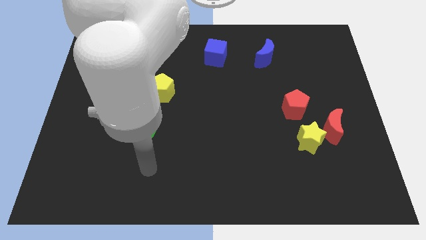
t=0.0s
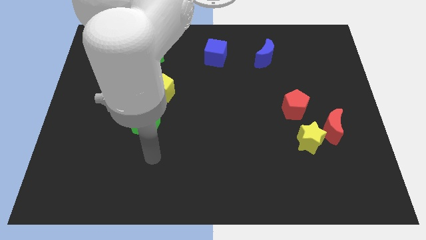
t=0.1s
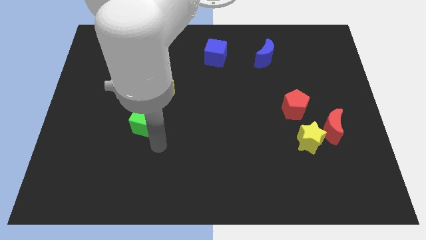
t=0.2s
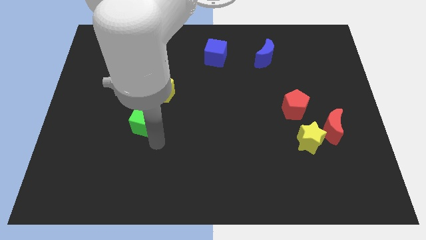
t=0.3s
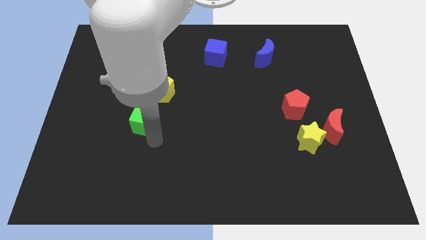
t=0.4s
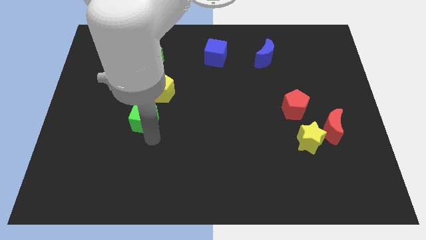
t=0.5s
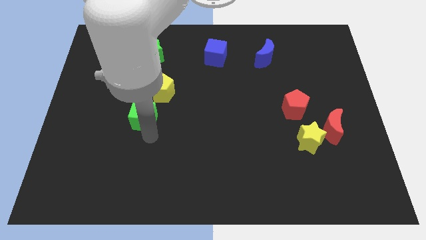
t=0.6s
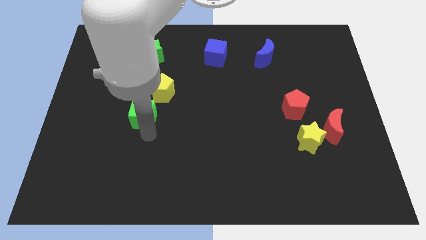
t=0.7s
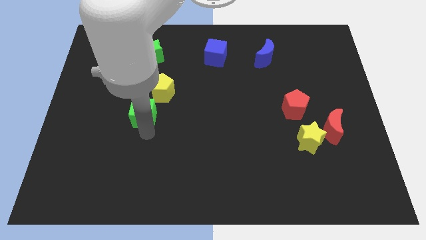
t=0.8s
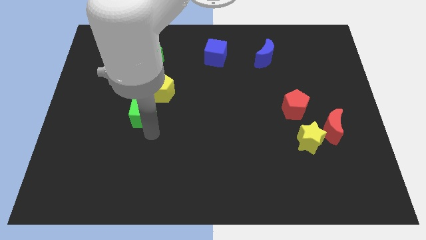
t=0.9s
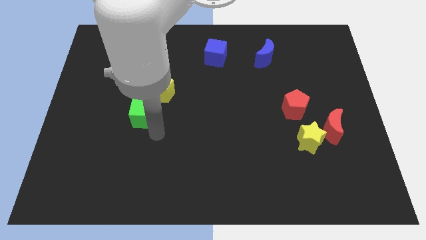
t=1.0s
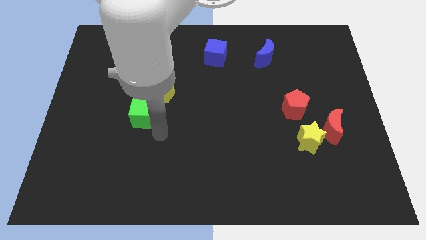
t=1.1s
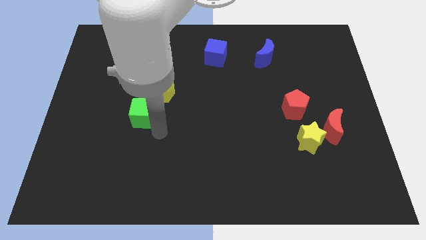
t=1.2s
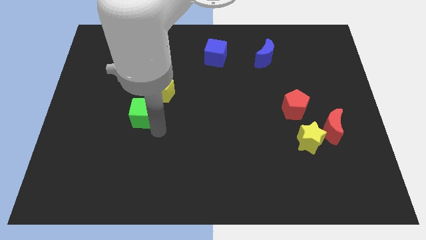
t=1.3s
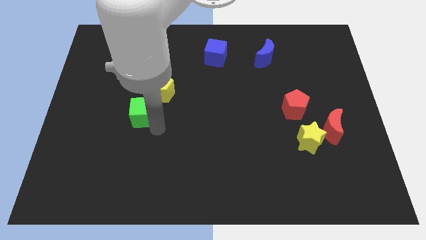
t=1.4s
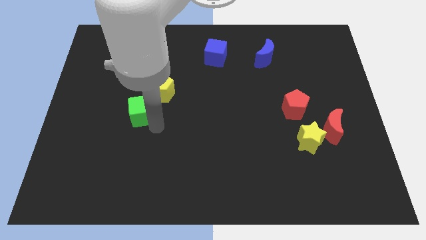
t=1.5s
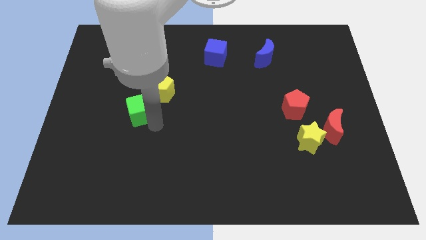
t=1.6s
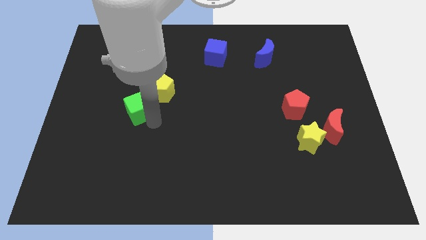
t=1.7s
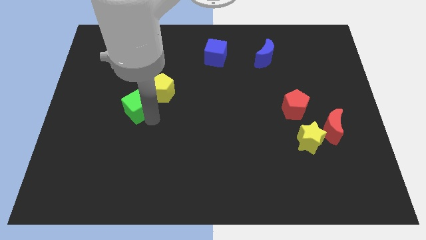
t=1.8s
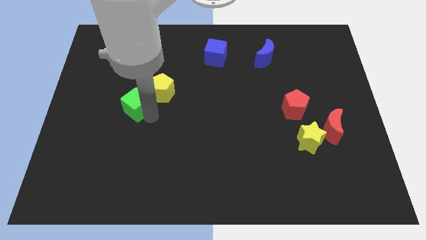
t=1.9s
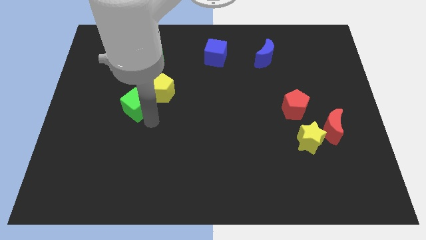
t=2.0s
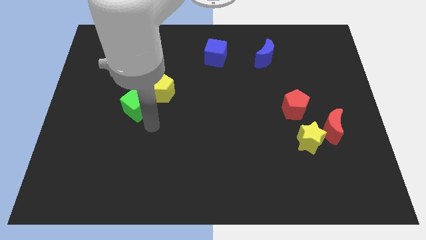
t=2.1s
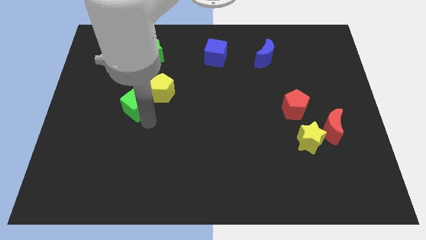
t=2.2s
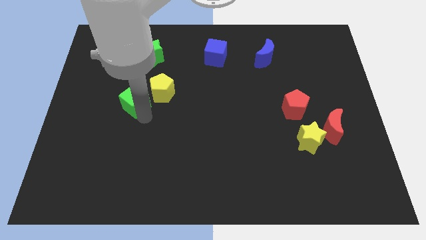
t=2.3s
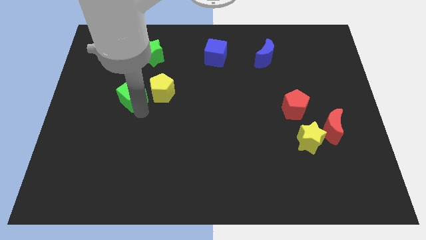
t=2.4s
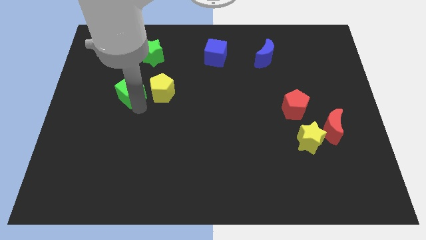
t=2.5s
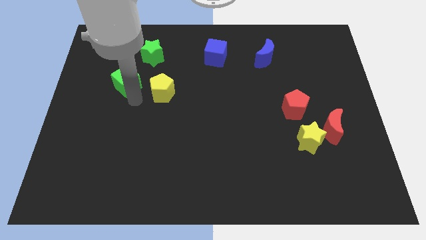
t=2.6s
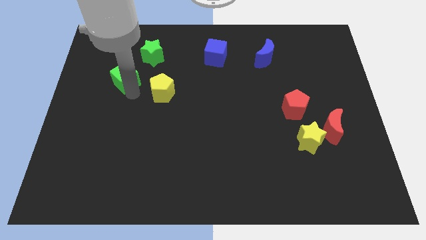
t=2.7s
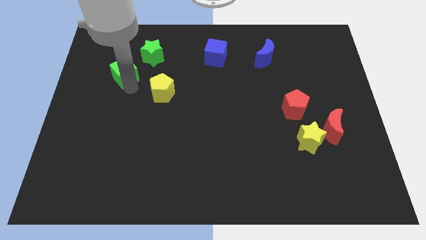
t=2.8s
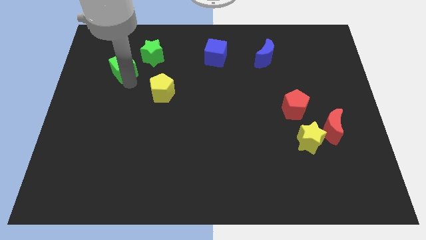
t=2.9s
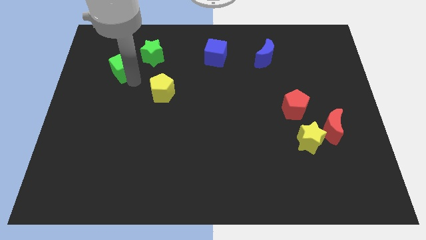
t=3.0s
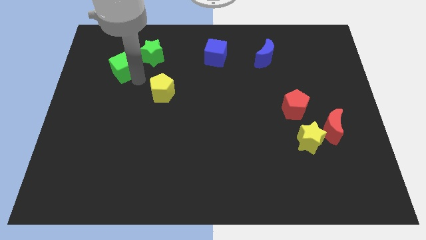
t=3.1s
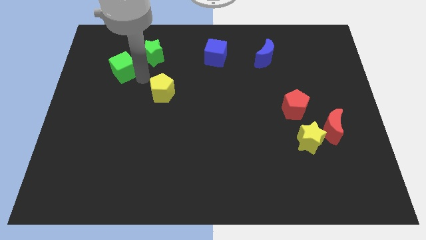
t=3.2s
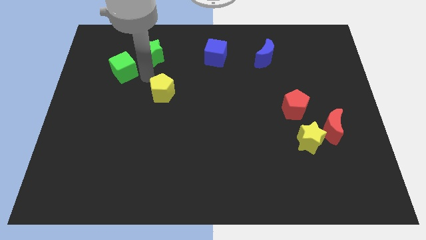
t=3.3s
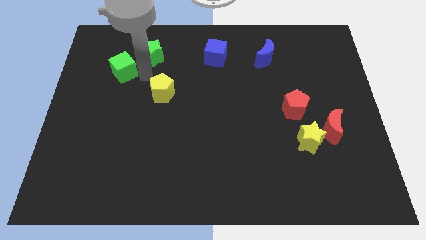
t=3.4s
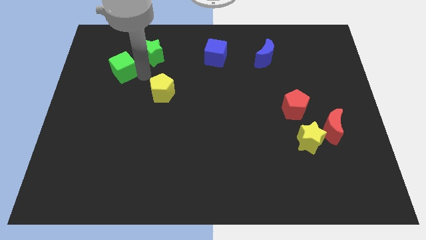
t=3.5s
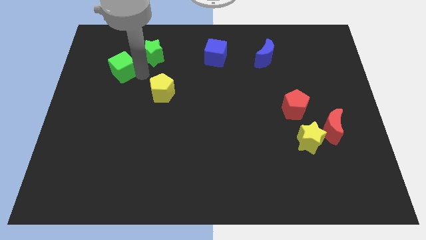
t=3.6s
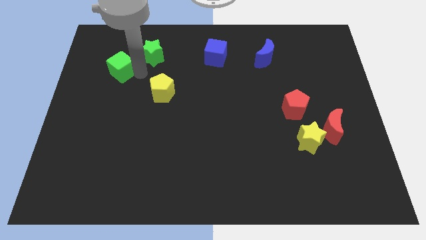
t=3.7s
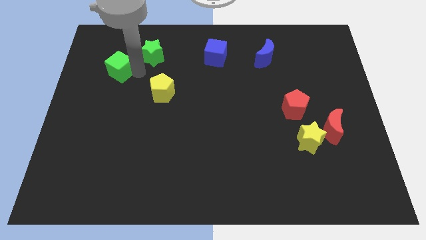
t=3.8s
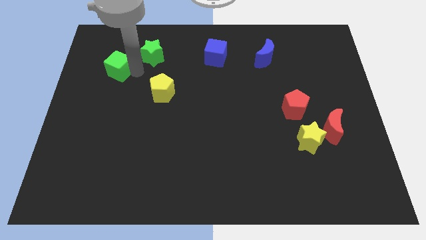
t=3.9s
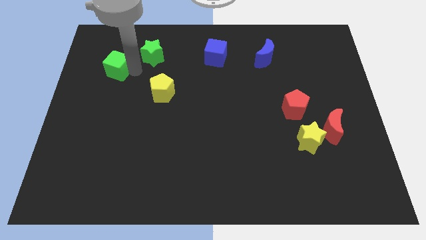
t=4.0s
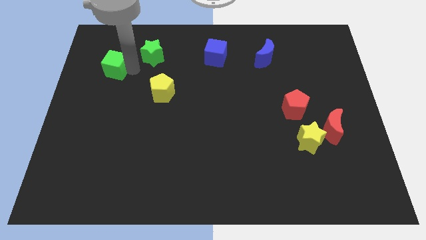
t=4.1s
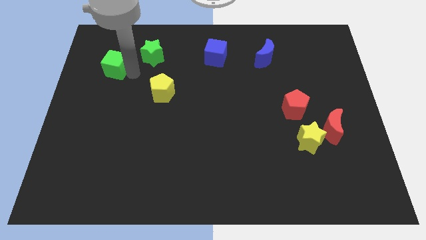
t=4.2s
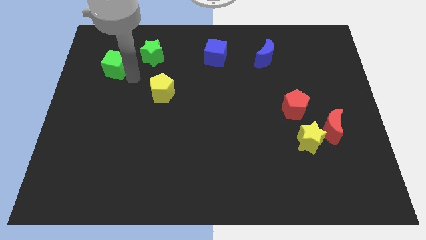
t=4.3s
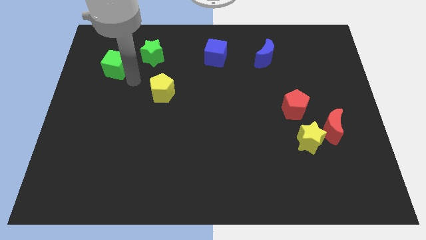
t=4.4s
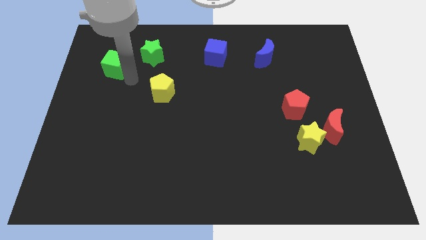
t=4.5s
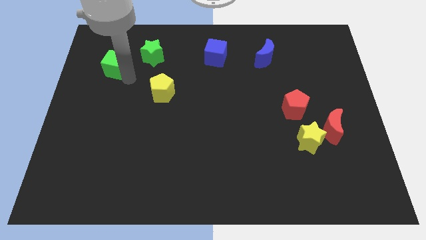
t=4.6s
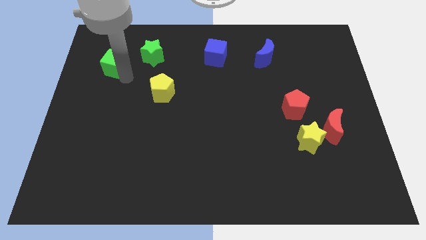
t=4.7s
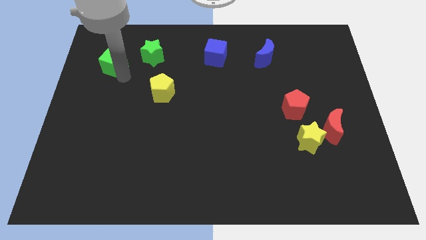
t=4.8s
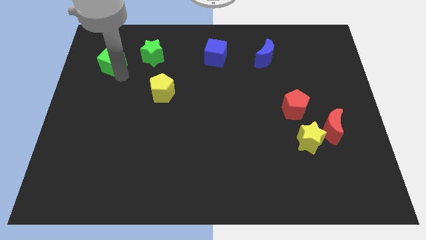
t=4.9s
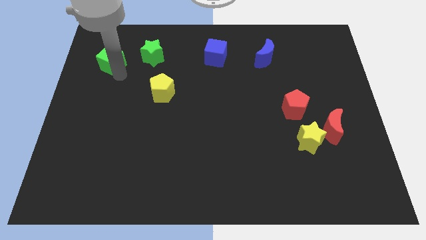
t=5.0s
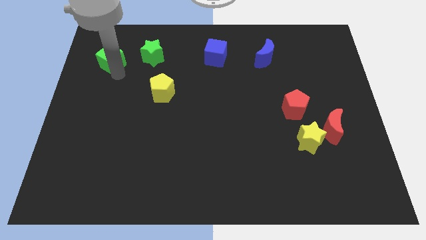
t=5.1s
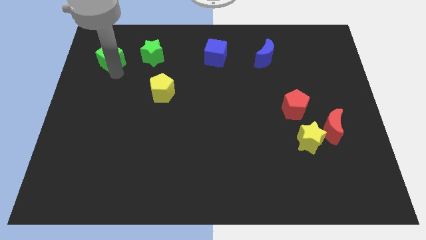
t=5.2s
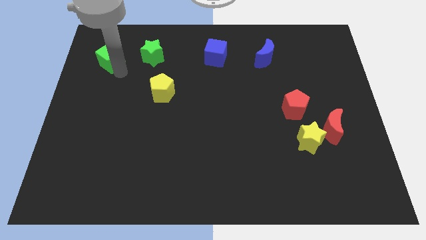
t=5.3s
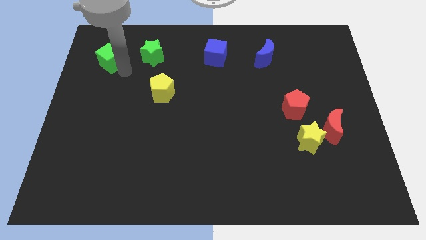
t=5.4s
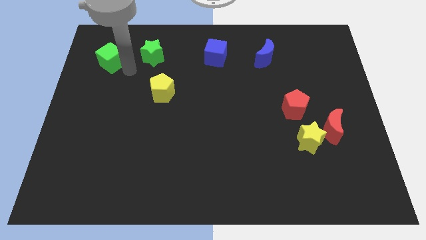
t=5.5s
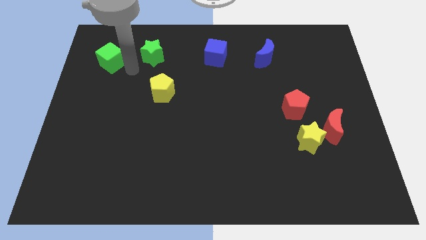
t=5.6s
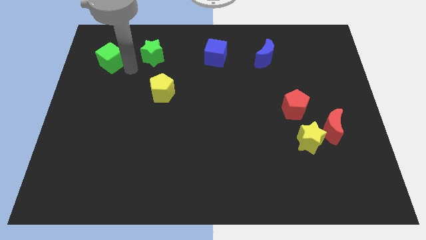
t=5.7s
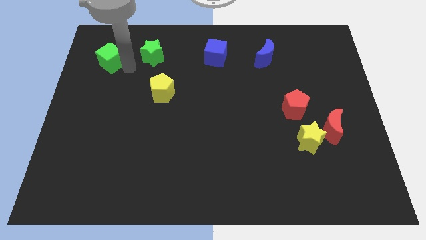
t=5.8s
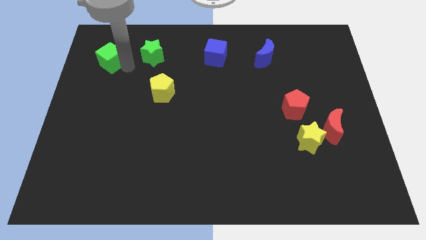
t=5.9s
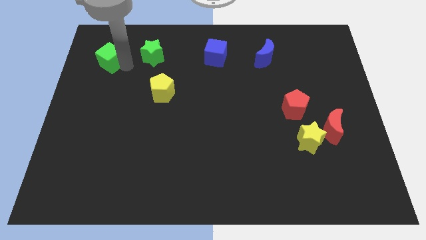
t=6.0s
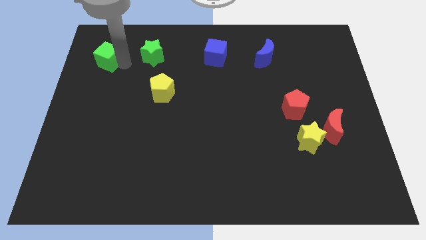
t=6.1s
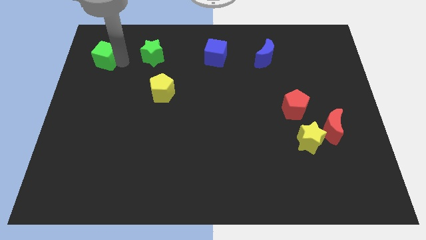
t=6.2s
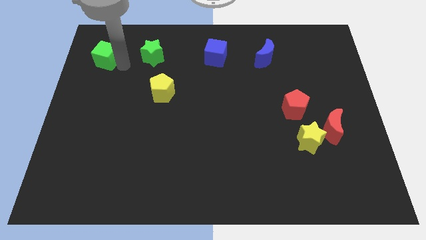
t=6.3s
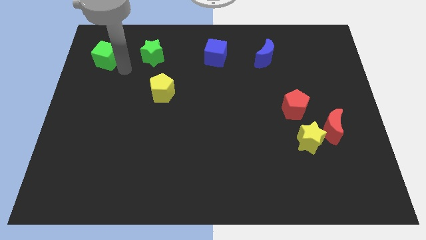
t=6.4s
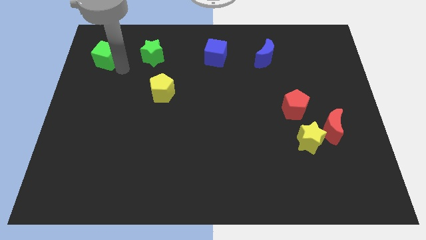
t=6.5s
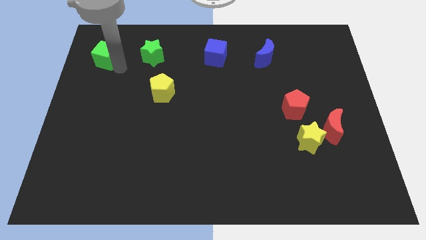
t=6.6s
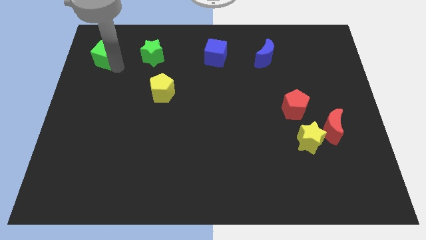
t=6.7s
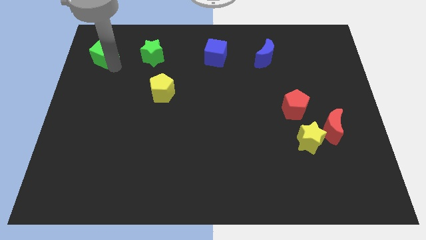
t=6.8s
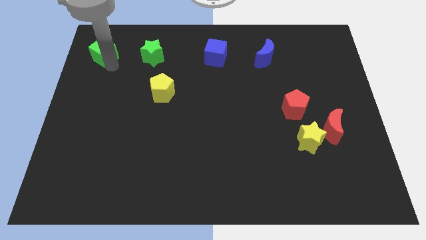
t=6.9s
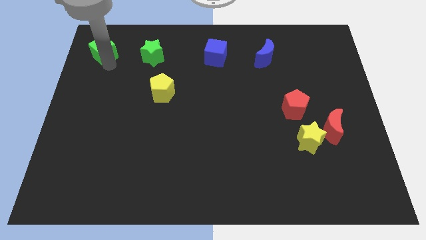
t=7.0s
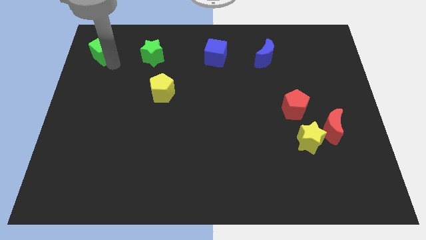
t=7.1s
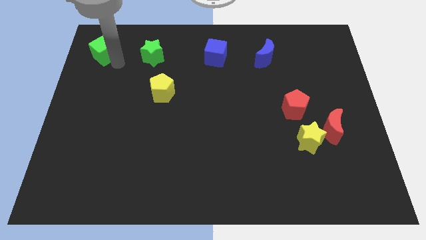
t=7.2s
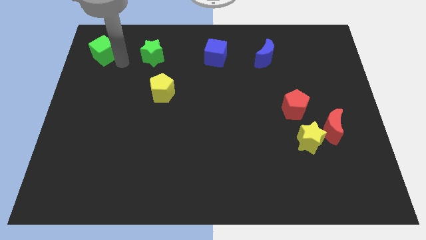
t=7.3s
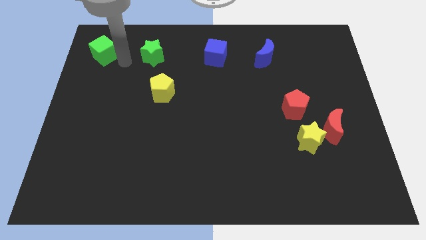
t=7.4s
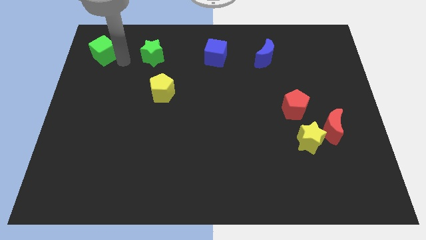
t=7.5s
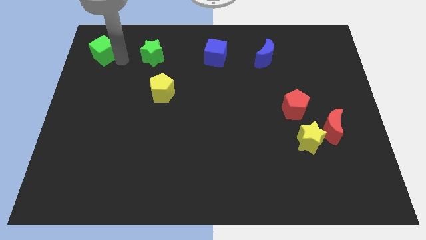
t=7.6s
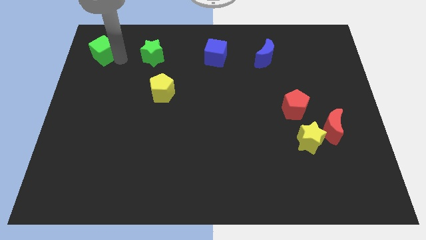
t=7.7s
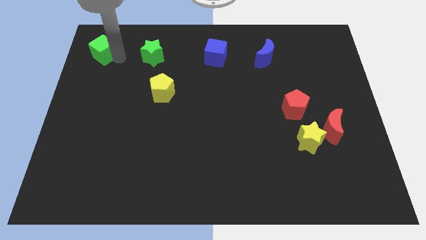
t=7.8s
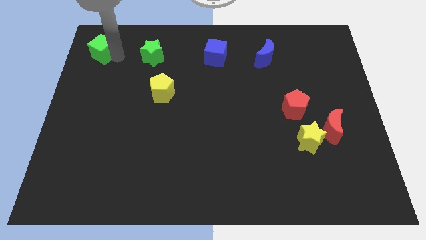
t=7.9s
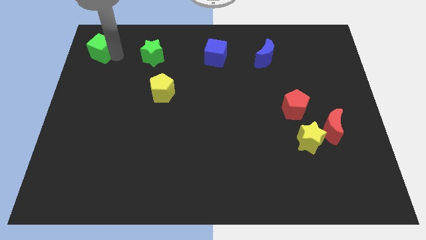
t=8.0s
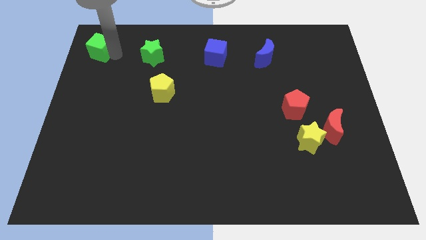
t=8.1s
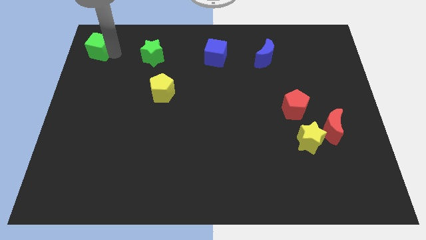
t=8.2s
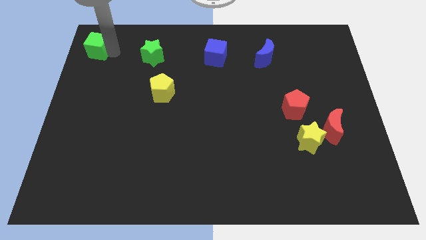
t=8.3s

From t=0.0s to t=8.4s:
move the green cube to the top left of the board
